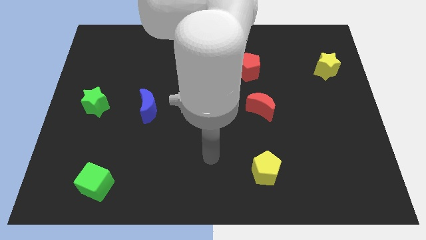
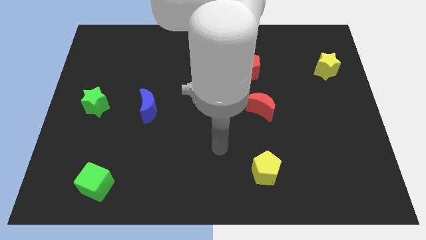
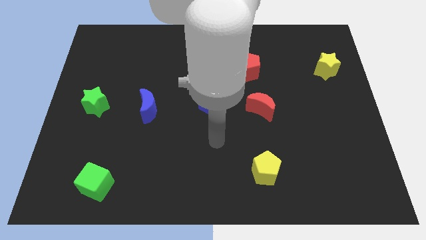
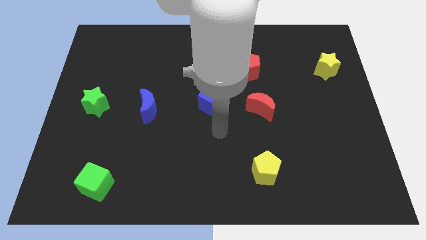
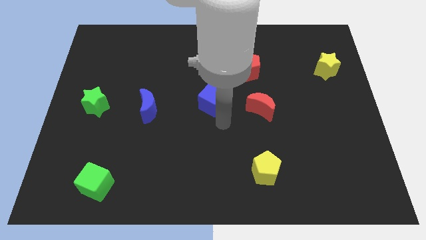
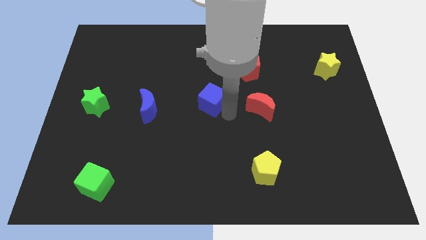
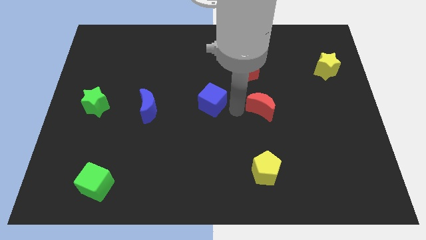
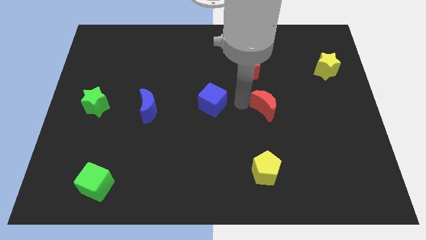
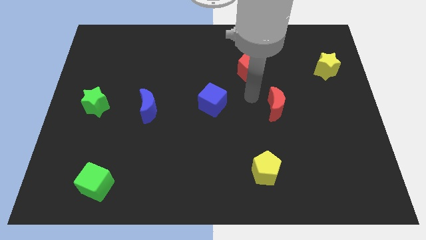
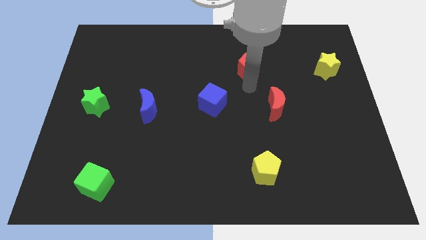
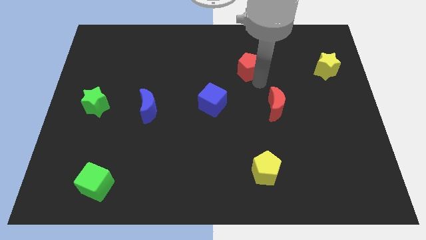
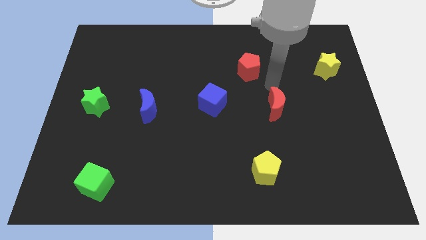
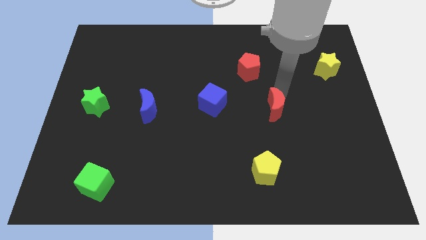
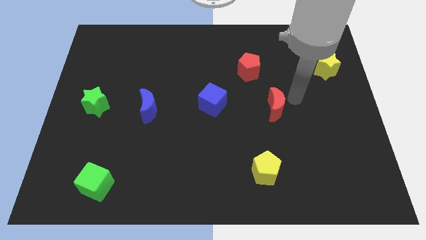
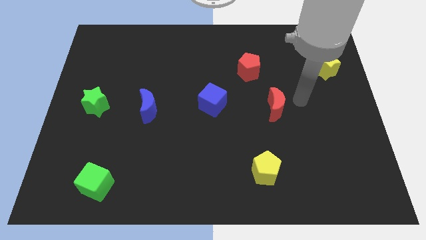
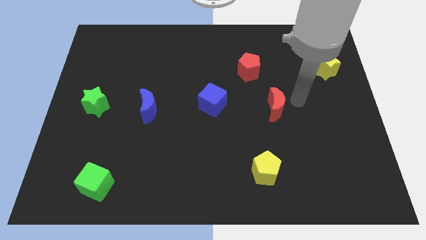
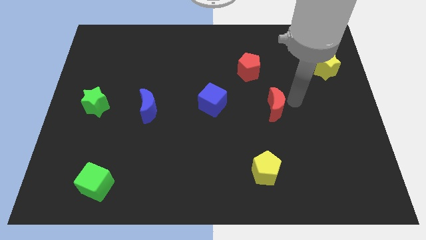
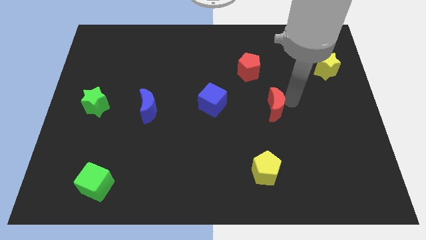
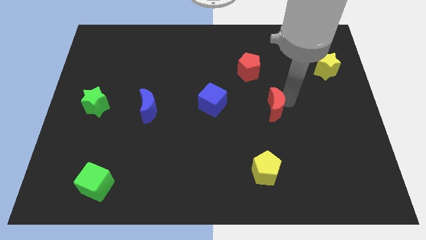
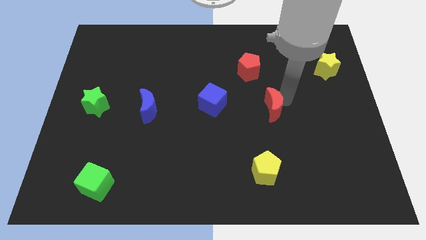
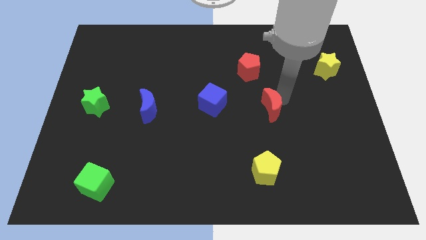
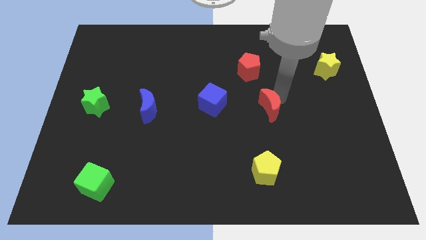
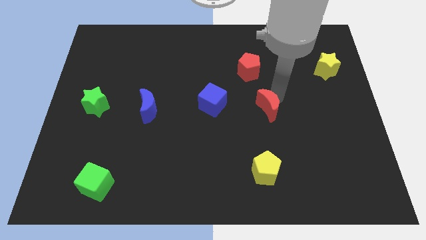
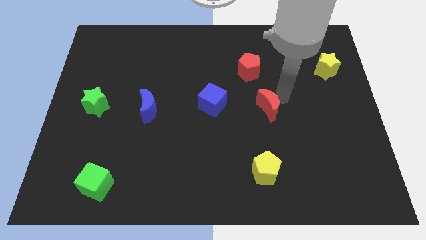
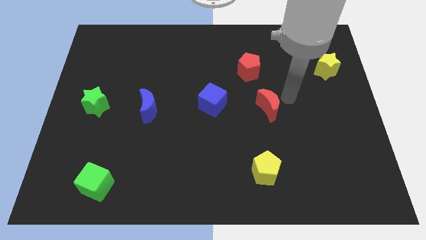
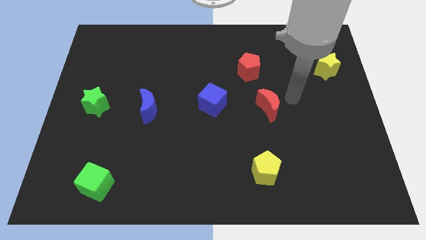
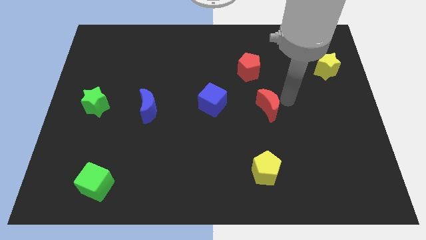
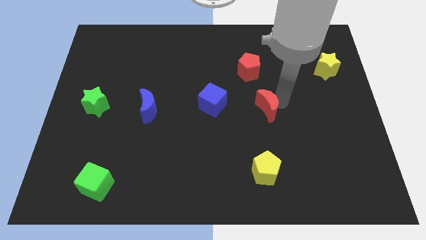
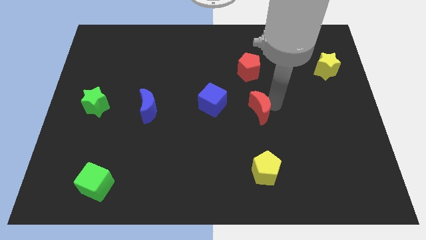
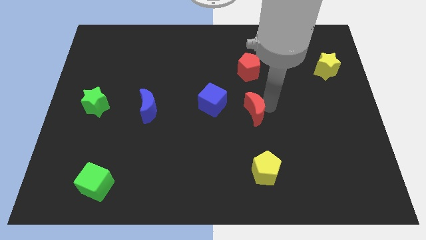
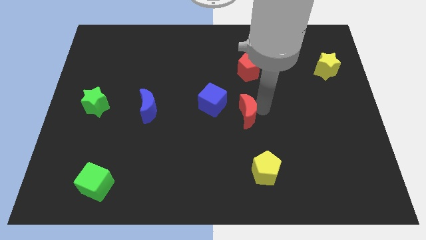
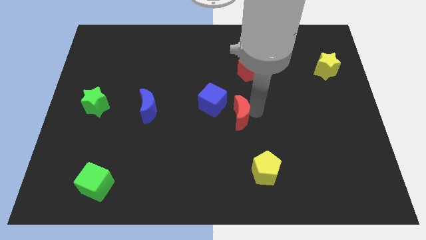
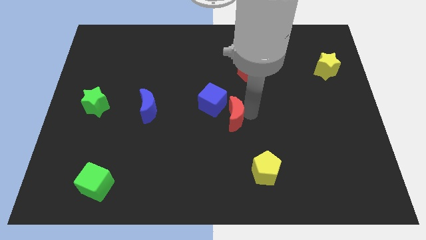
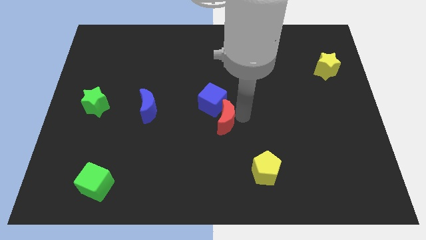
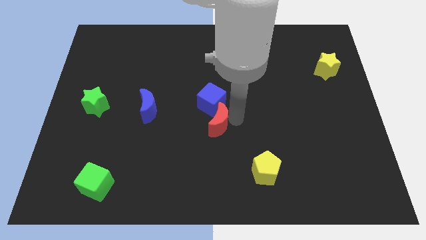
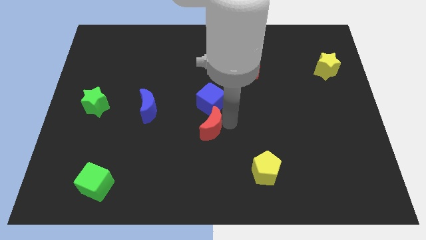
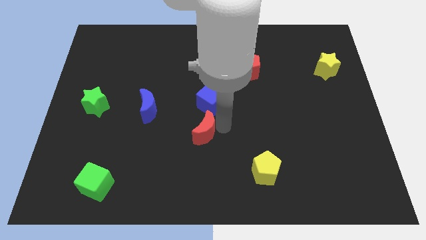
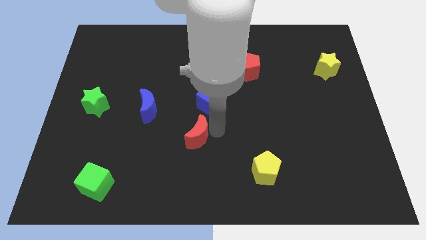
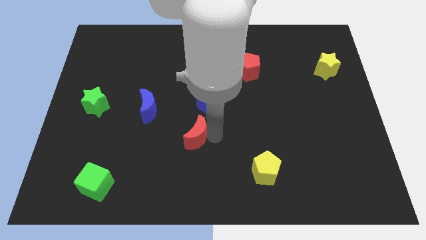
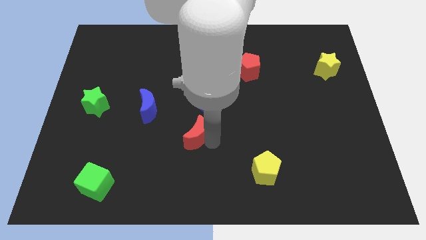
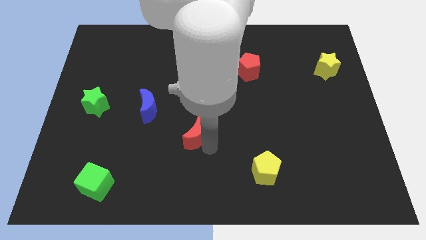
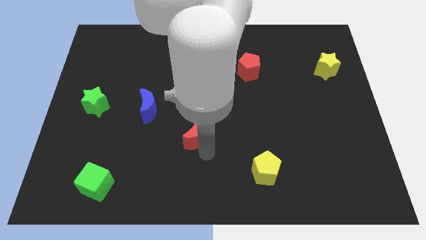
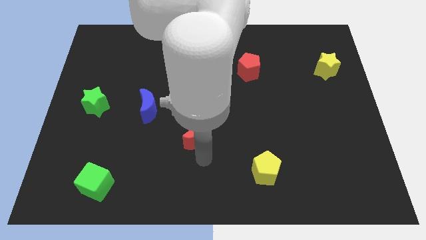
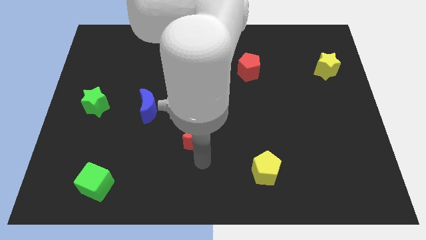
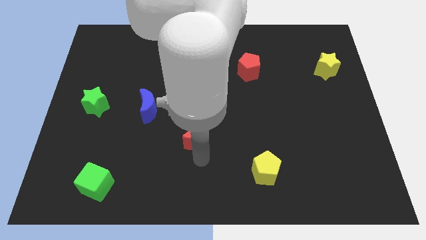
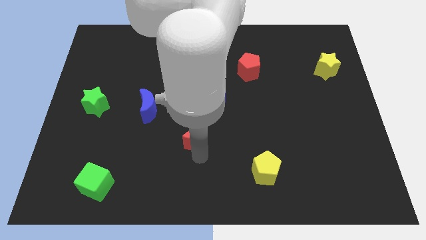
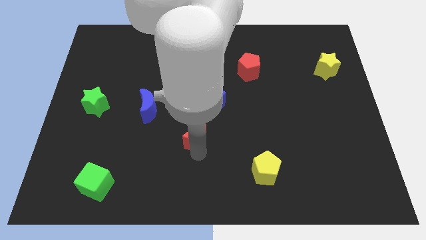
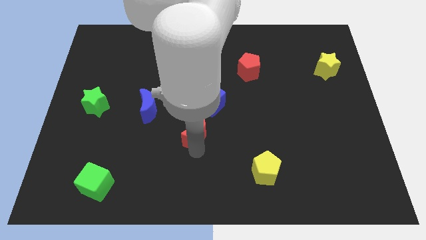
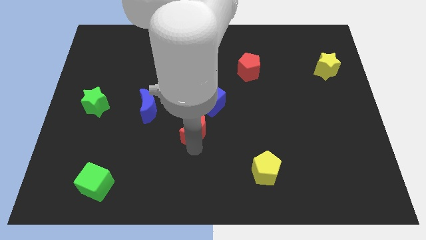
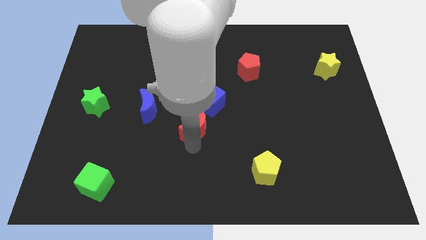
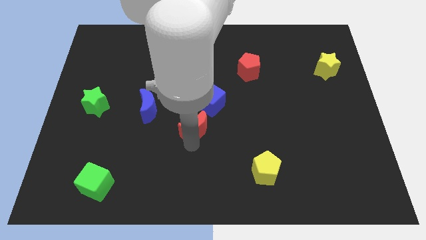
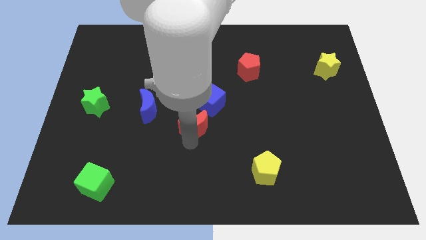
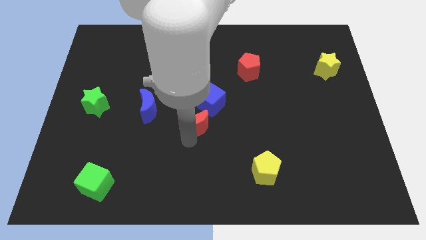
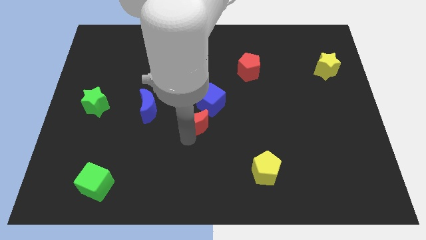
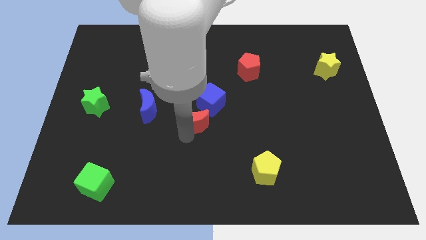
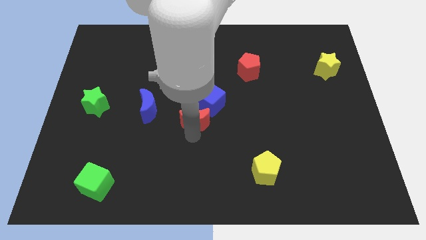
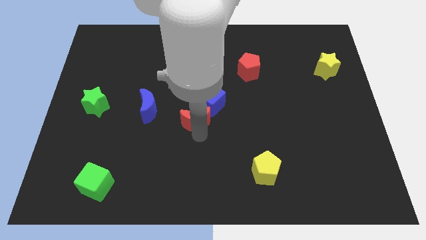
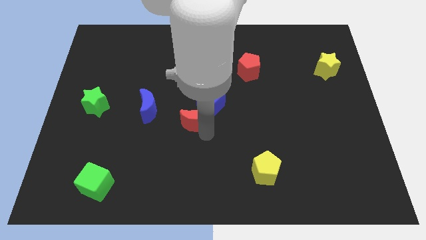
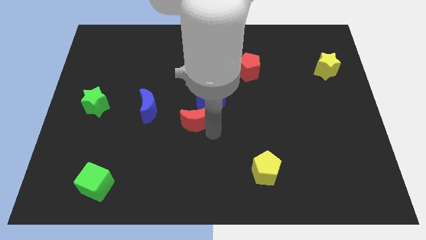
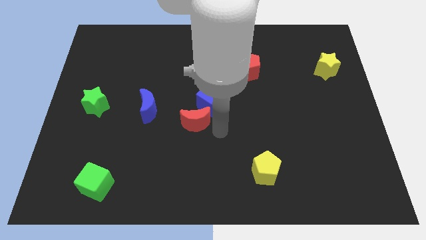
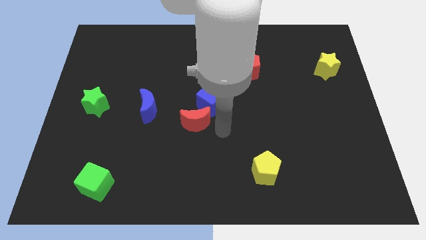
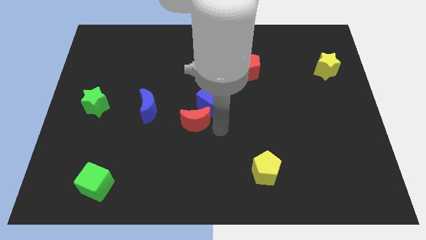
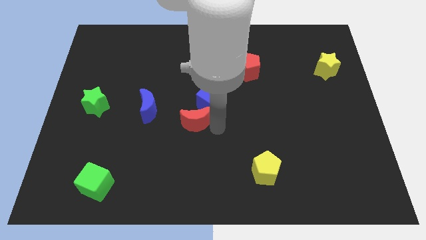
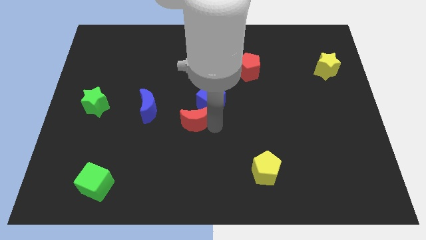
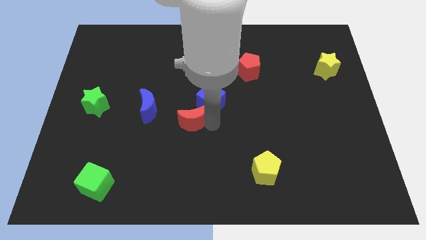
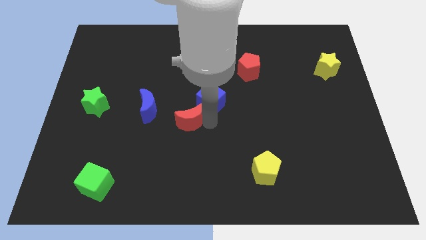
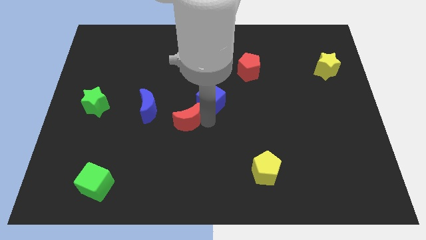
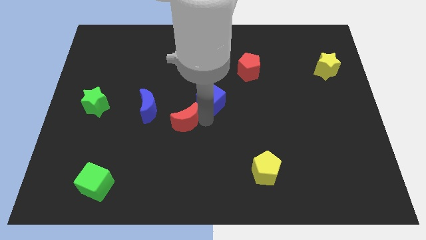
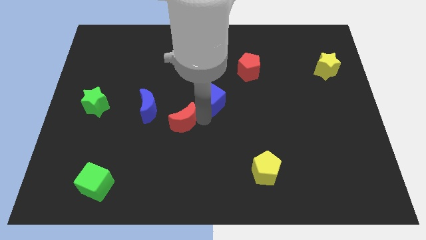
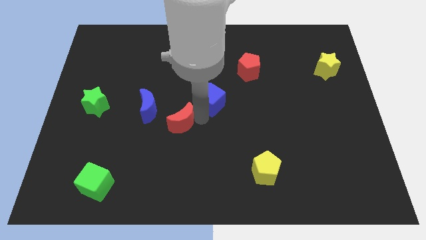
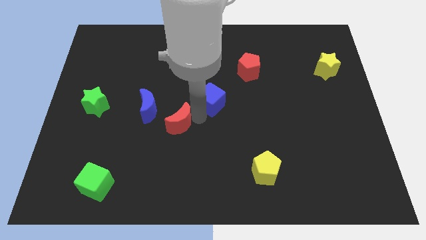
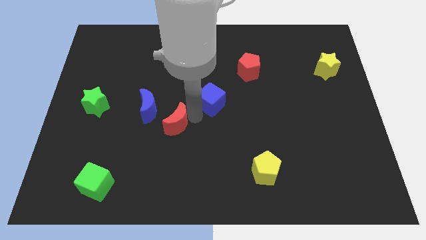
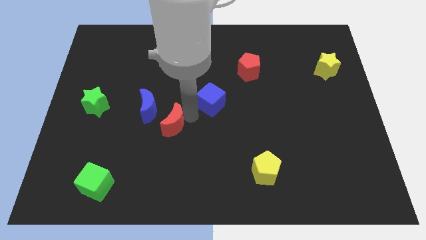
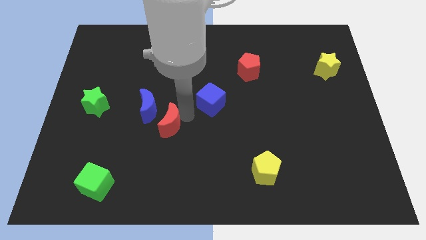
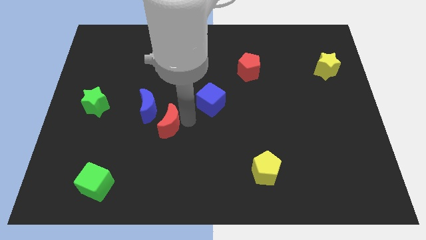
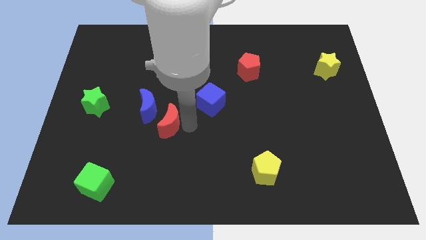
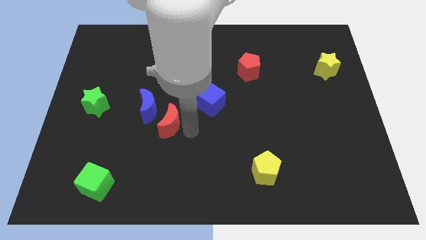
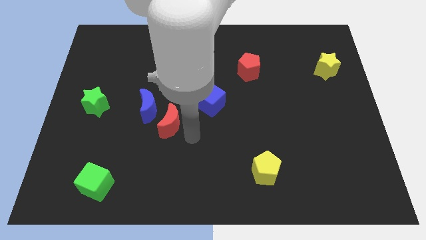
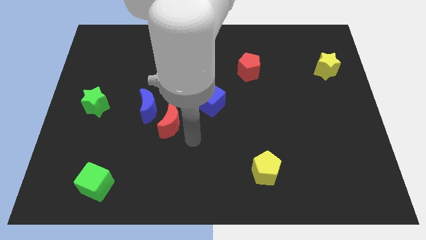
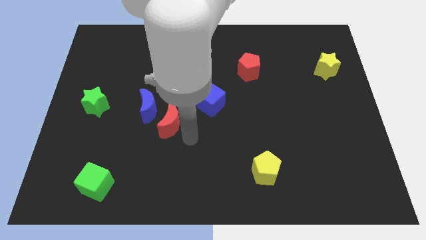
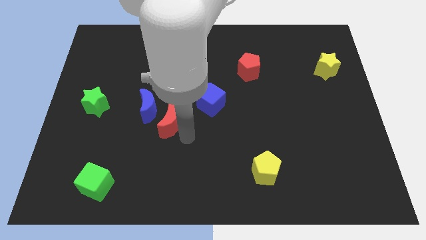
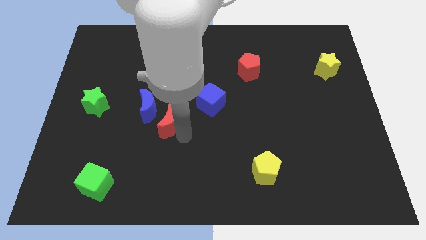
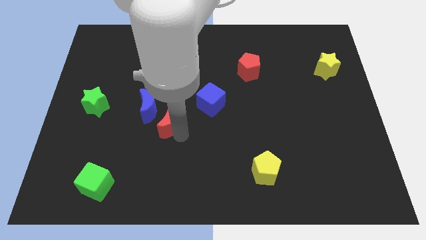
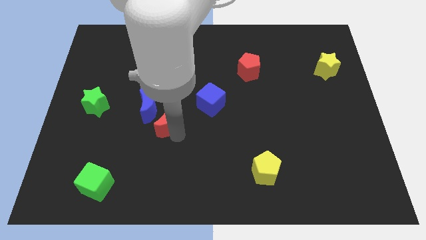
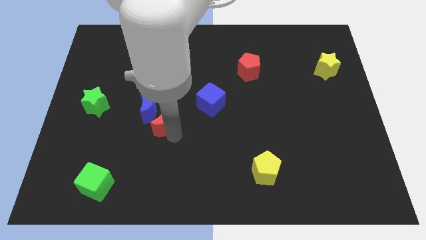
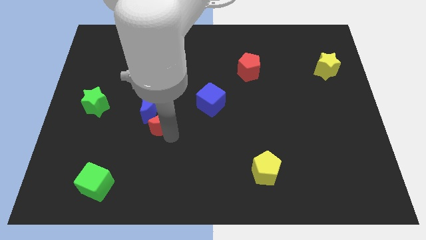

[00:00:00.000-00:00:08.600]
move the red moon to the blue moon
